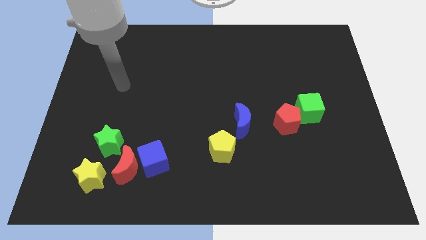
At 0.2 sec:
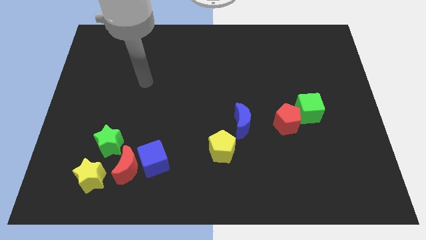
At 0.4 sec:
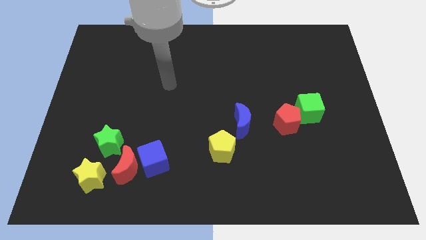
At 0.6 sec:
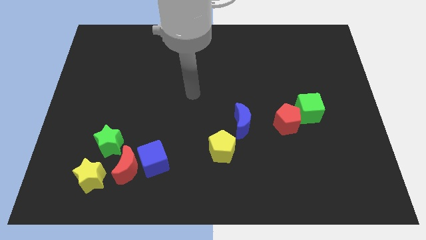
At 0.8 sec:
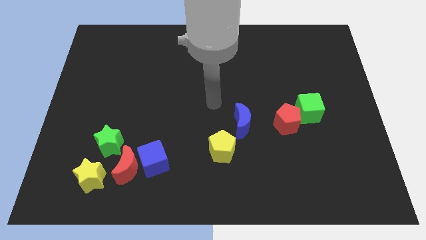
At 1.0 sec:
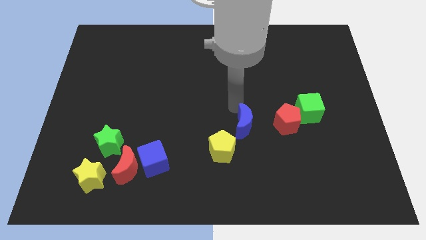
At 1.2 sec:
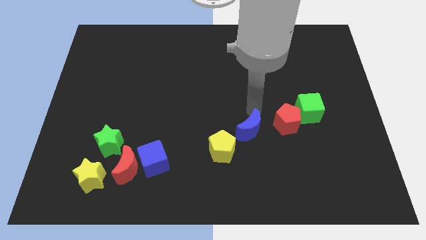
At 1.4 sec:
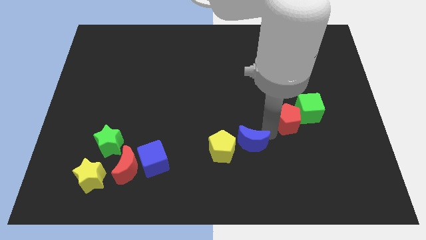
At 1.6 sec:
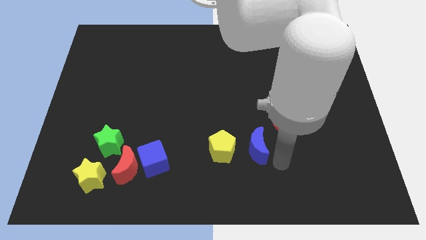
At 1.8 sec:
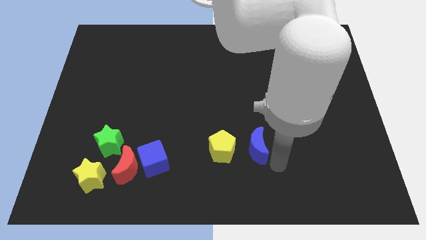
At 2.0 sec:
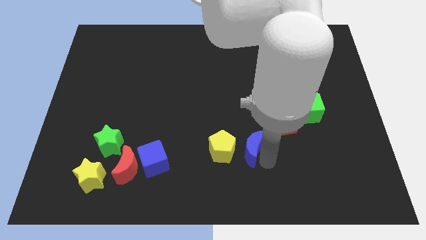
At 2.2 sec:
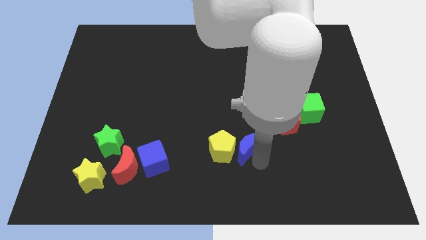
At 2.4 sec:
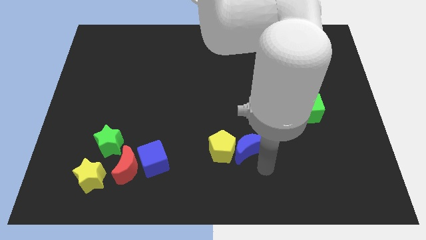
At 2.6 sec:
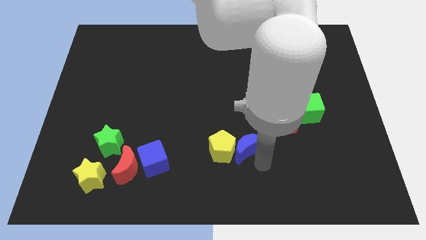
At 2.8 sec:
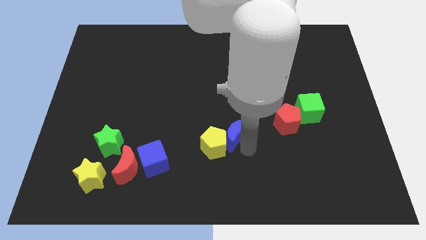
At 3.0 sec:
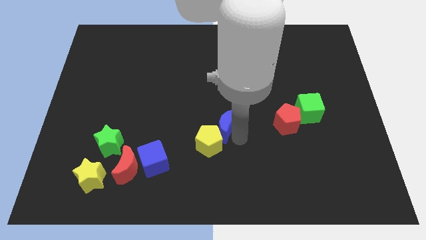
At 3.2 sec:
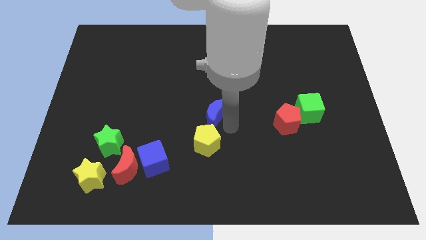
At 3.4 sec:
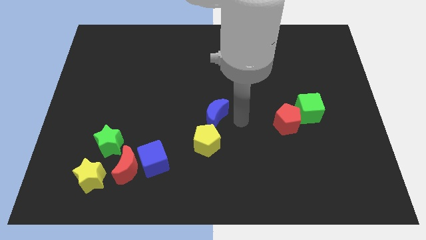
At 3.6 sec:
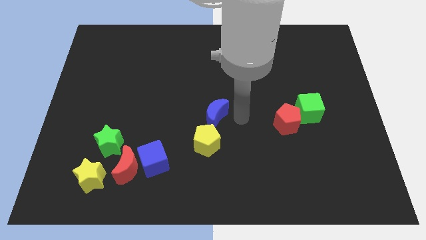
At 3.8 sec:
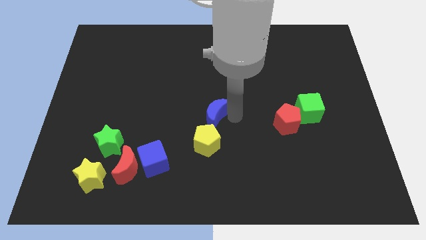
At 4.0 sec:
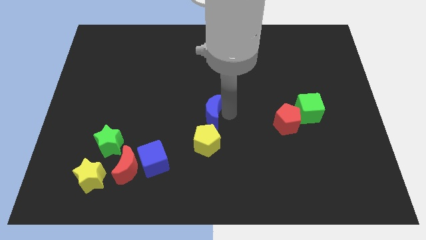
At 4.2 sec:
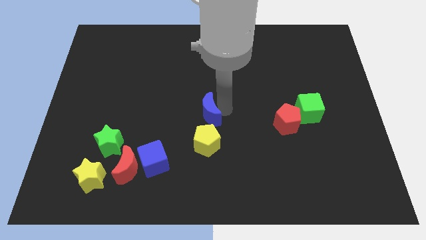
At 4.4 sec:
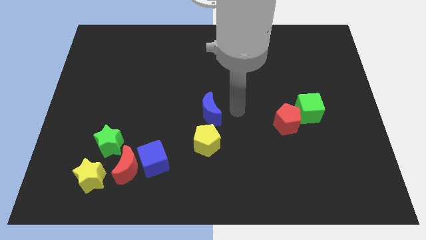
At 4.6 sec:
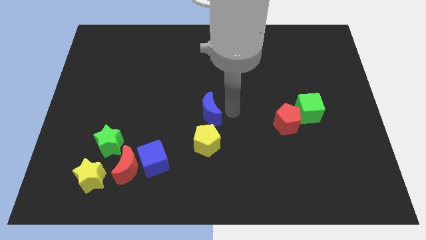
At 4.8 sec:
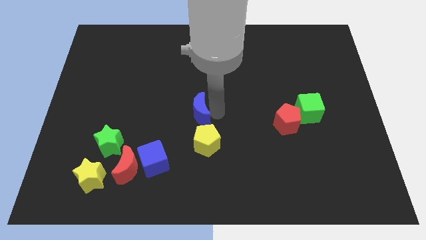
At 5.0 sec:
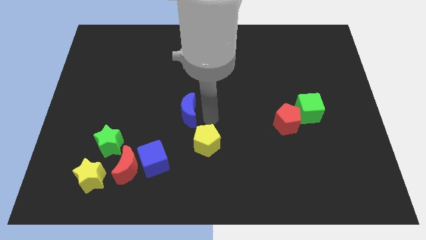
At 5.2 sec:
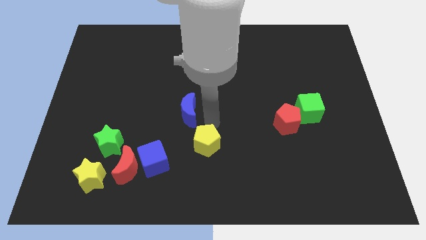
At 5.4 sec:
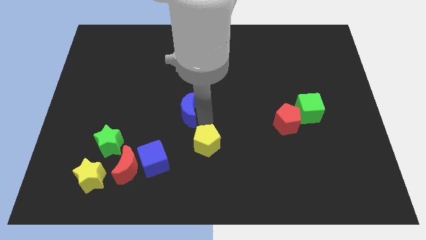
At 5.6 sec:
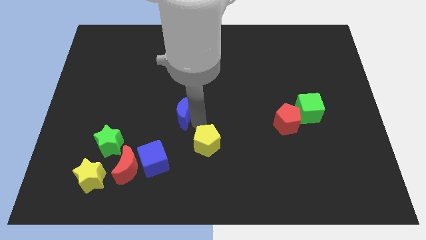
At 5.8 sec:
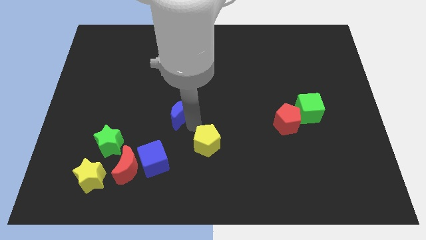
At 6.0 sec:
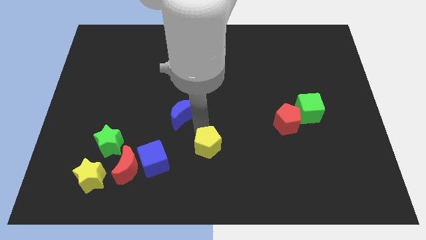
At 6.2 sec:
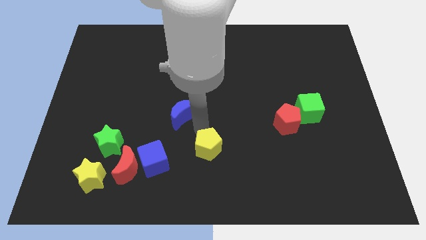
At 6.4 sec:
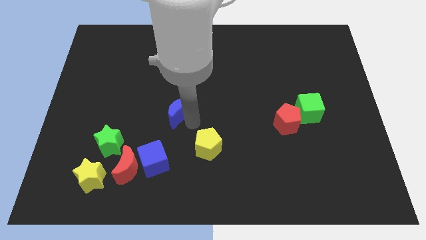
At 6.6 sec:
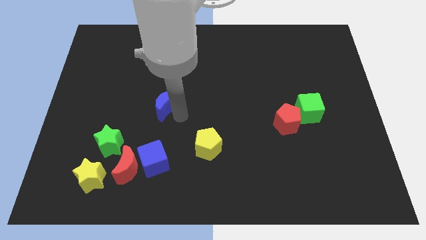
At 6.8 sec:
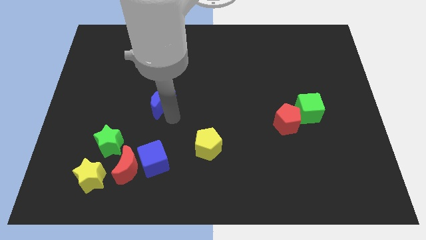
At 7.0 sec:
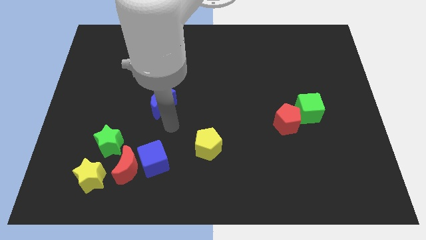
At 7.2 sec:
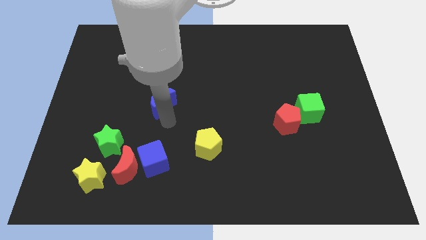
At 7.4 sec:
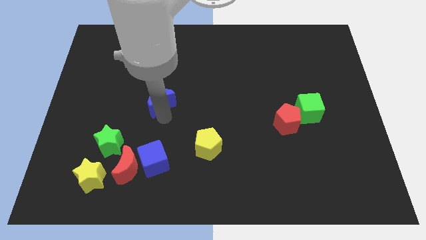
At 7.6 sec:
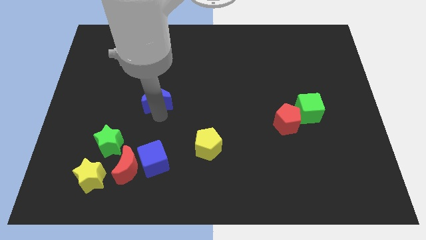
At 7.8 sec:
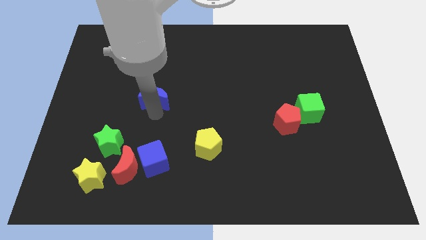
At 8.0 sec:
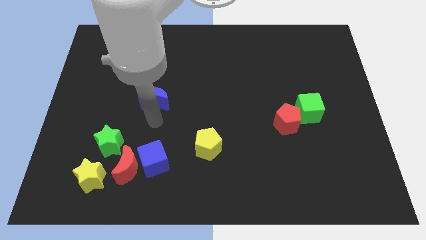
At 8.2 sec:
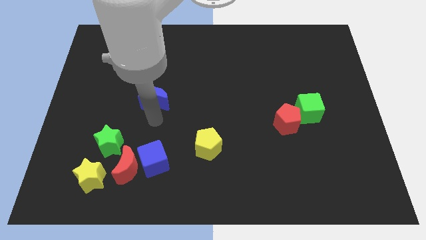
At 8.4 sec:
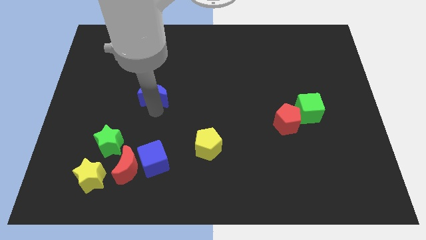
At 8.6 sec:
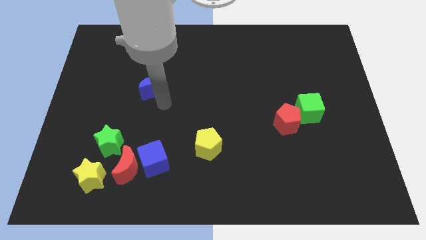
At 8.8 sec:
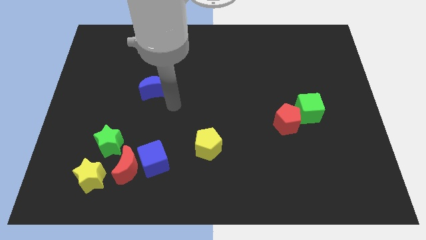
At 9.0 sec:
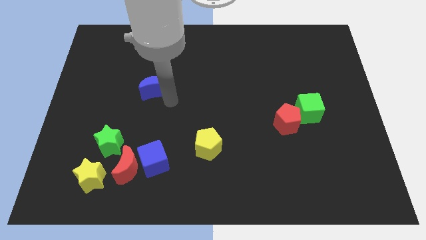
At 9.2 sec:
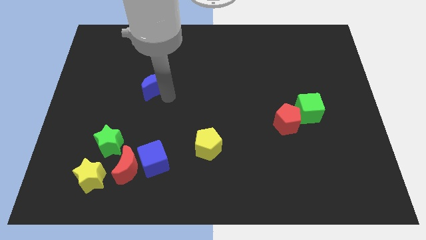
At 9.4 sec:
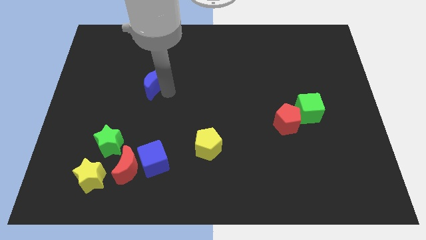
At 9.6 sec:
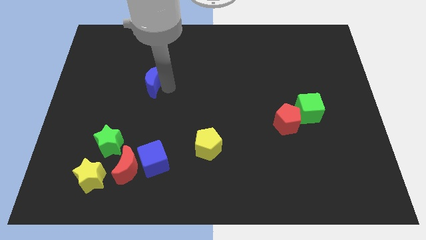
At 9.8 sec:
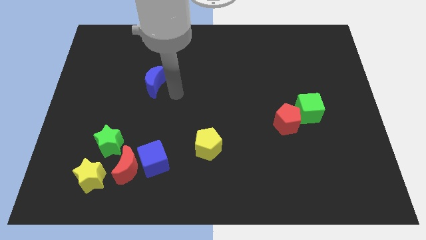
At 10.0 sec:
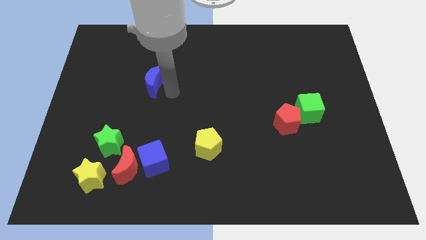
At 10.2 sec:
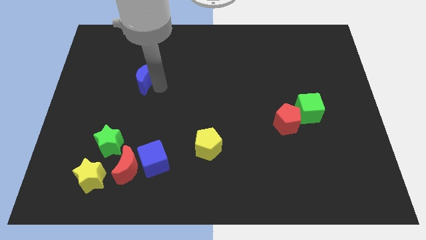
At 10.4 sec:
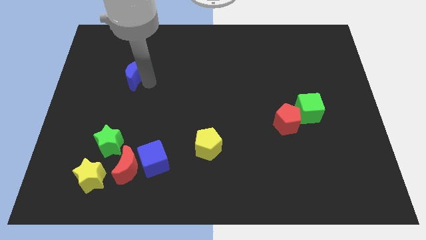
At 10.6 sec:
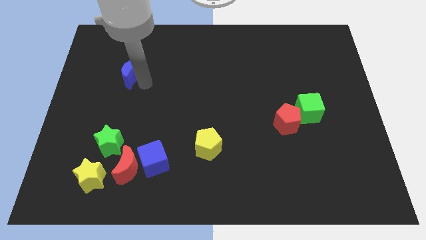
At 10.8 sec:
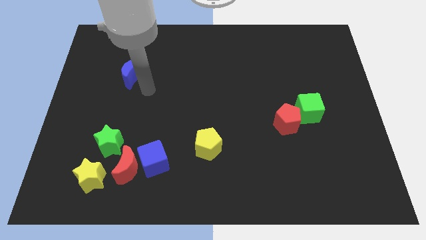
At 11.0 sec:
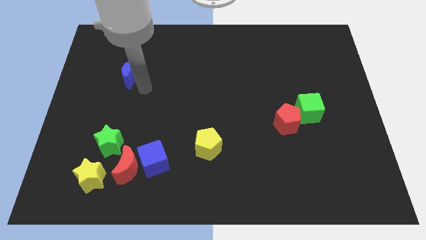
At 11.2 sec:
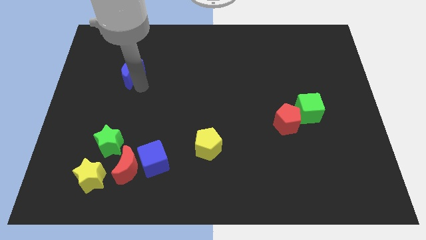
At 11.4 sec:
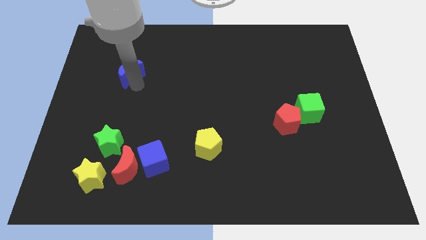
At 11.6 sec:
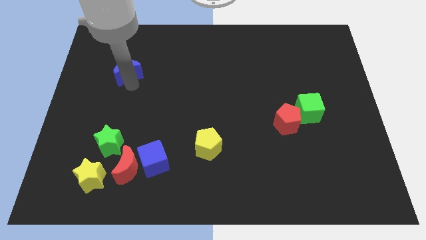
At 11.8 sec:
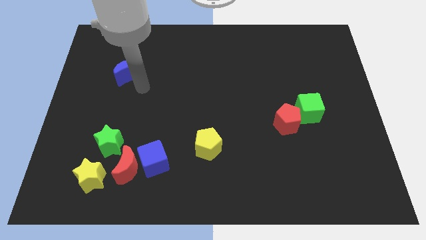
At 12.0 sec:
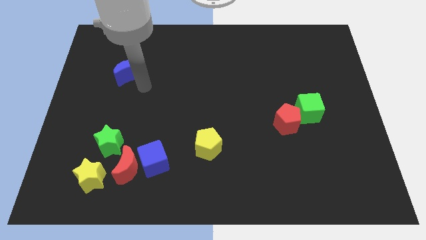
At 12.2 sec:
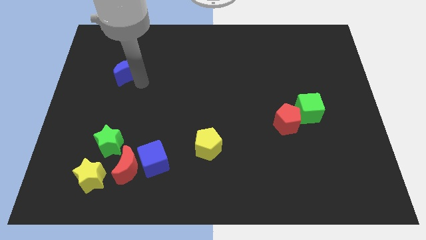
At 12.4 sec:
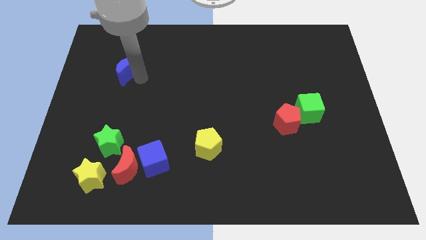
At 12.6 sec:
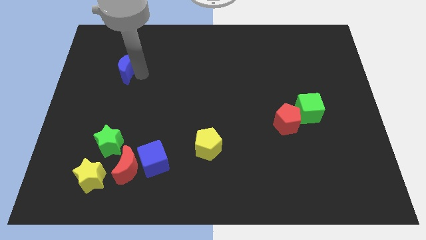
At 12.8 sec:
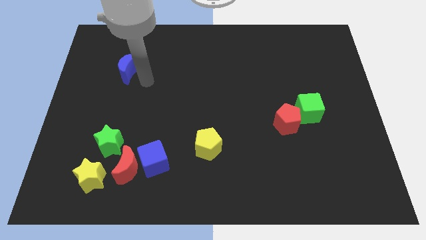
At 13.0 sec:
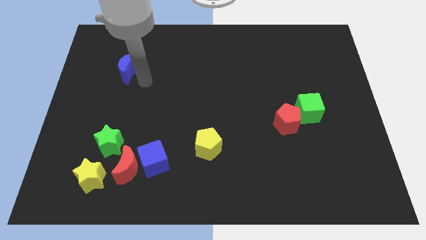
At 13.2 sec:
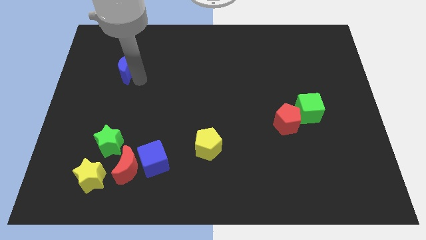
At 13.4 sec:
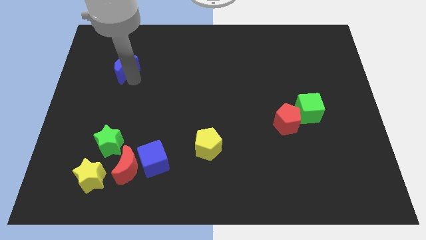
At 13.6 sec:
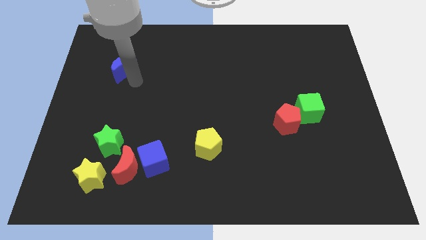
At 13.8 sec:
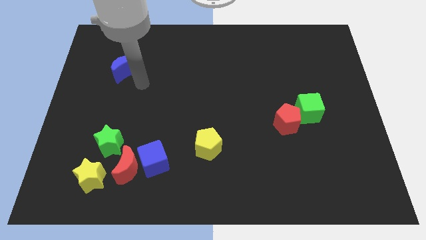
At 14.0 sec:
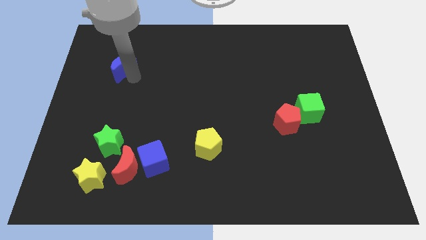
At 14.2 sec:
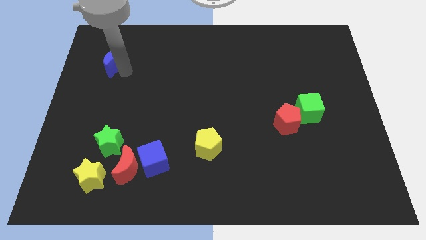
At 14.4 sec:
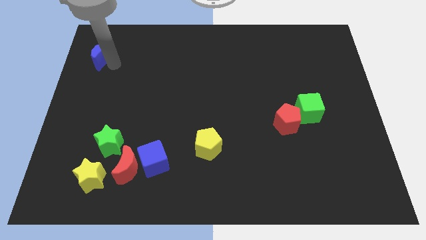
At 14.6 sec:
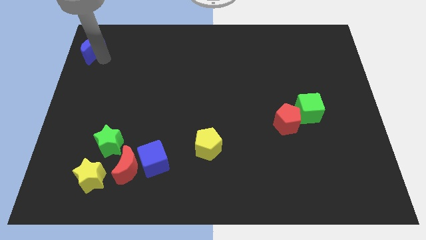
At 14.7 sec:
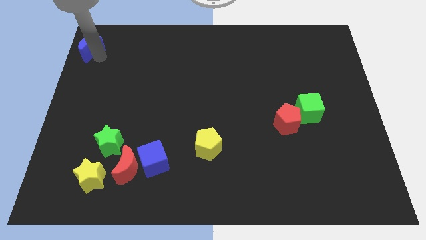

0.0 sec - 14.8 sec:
slide the blue moon to the top left of the board
